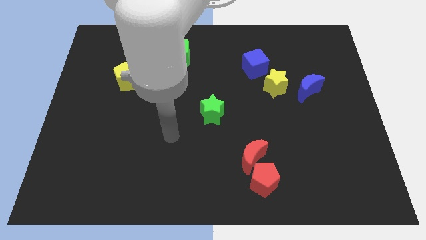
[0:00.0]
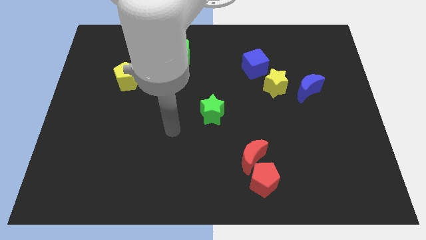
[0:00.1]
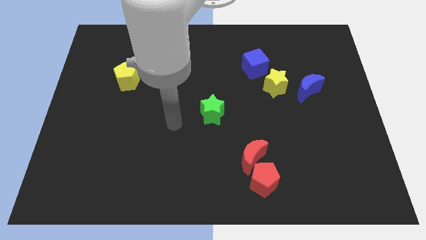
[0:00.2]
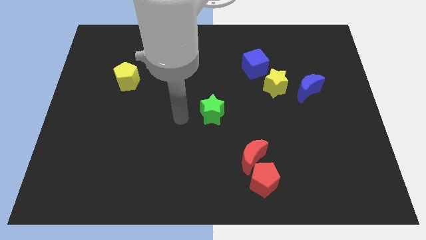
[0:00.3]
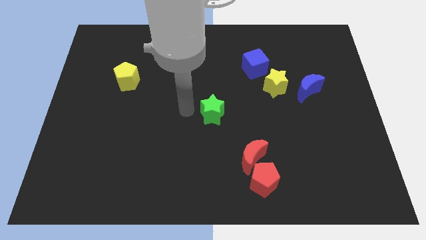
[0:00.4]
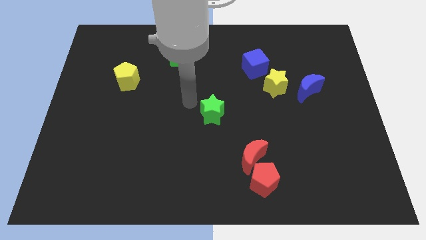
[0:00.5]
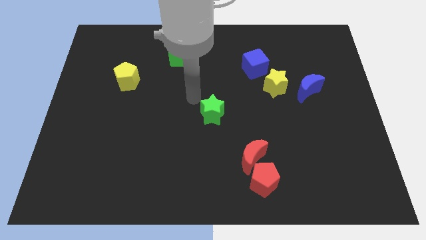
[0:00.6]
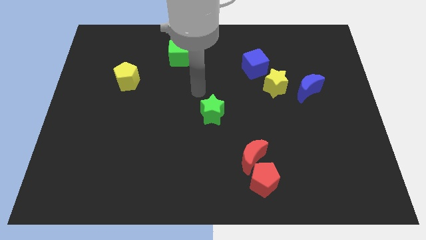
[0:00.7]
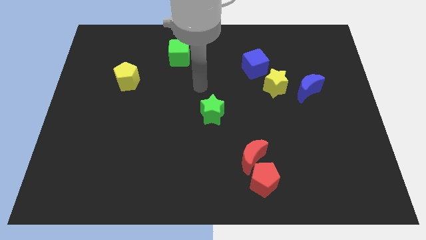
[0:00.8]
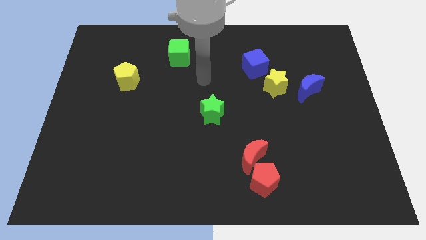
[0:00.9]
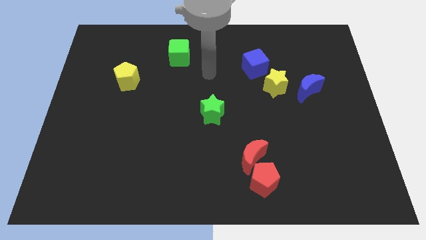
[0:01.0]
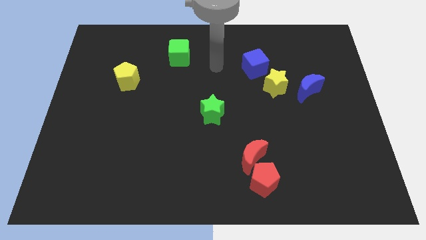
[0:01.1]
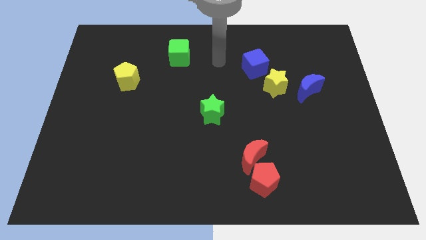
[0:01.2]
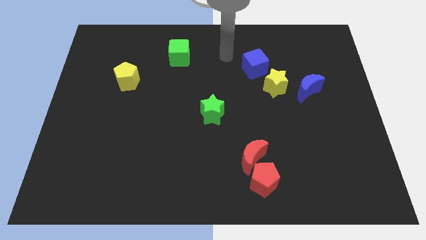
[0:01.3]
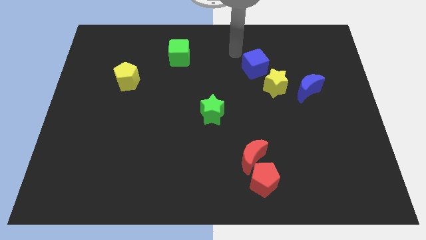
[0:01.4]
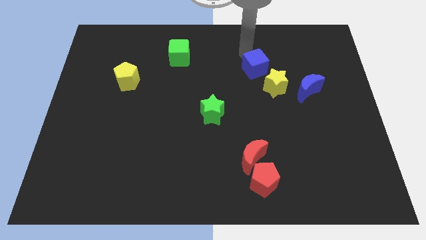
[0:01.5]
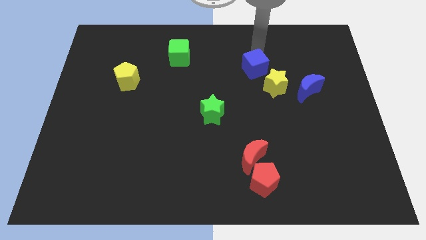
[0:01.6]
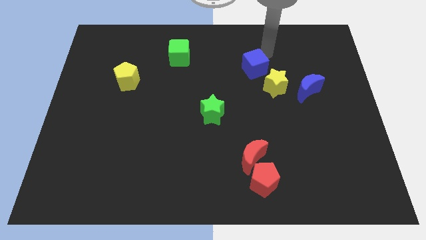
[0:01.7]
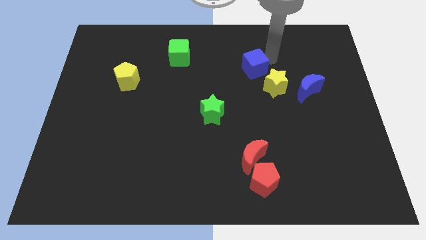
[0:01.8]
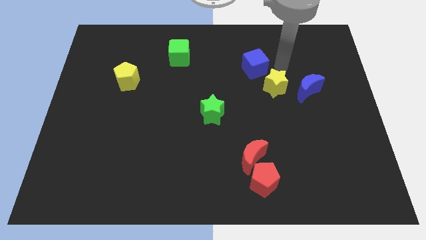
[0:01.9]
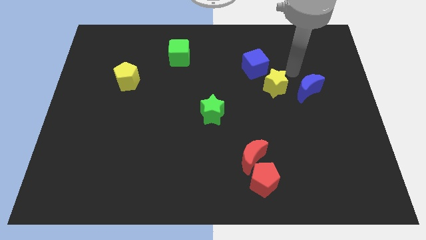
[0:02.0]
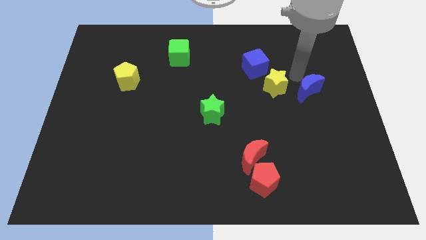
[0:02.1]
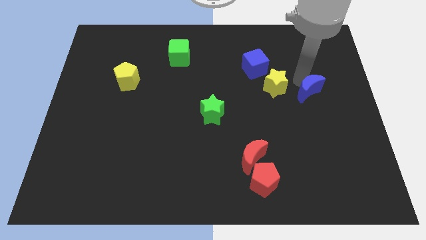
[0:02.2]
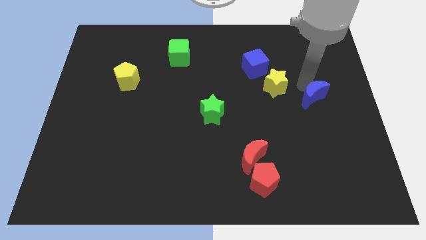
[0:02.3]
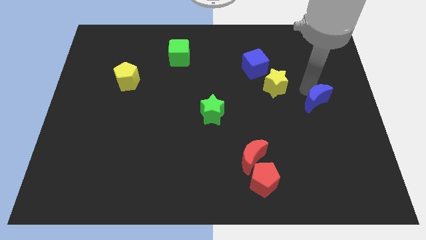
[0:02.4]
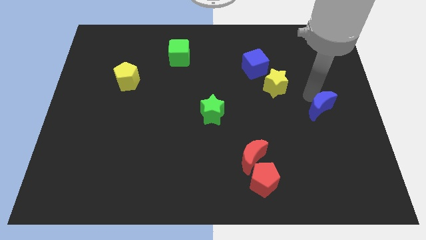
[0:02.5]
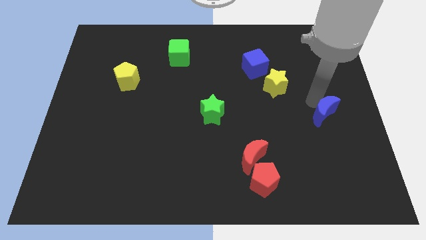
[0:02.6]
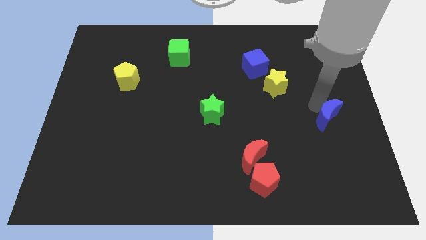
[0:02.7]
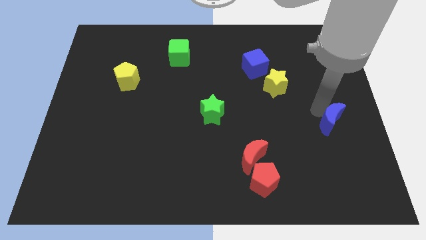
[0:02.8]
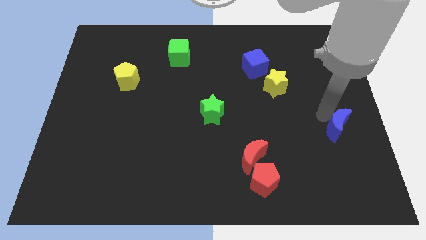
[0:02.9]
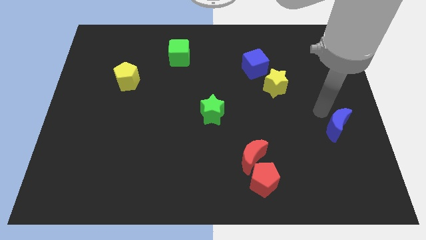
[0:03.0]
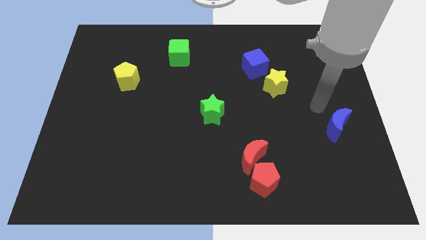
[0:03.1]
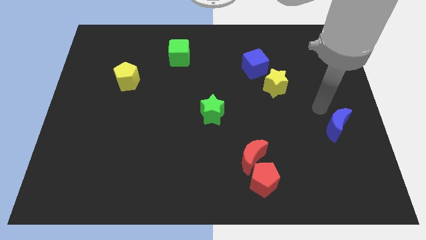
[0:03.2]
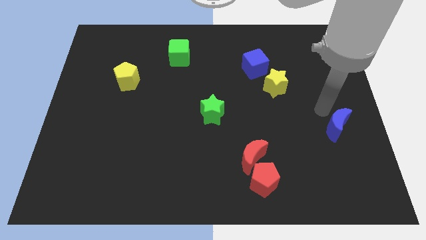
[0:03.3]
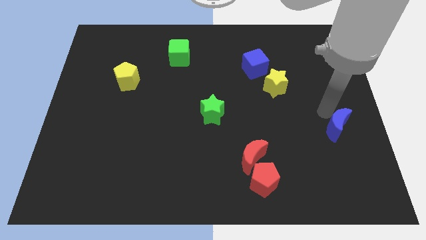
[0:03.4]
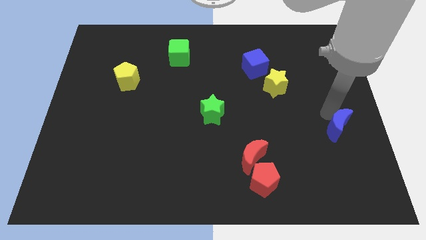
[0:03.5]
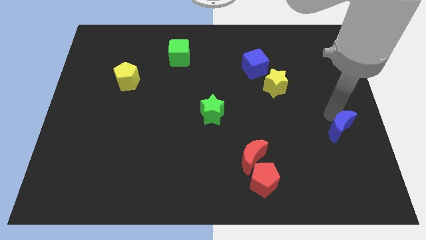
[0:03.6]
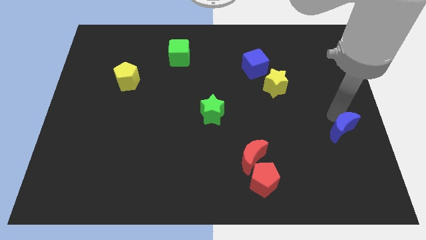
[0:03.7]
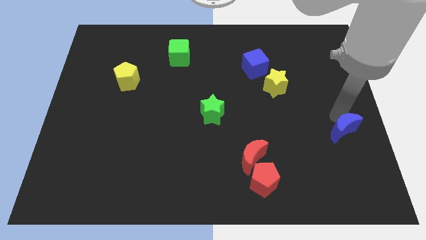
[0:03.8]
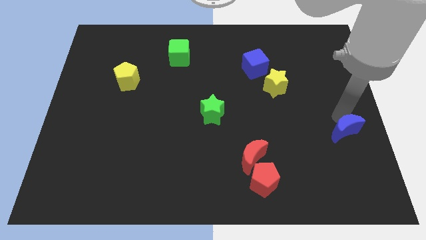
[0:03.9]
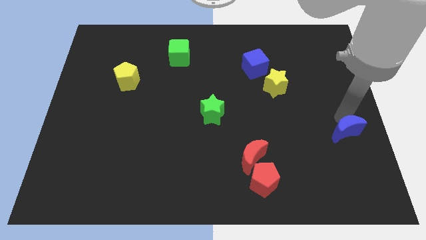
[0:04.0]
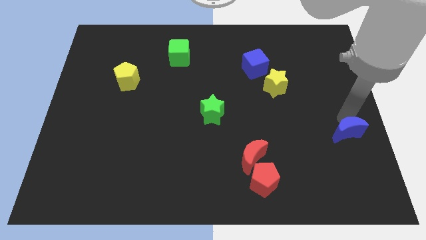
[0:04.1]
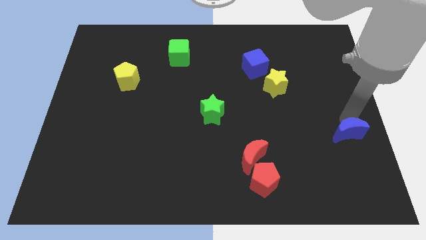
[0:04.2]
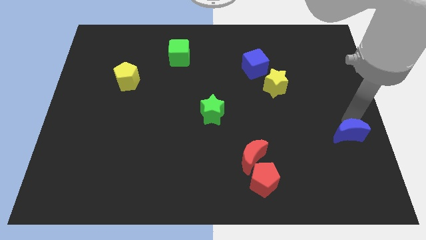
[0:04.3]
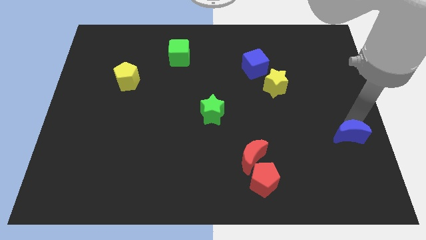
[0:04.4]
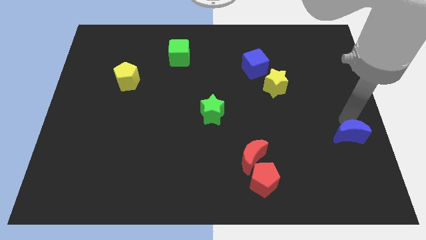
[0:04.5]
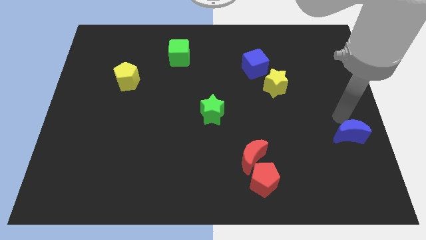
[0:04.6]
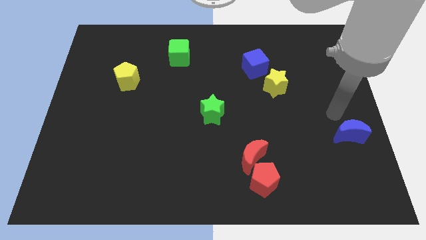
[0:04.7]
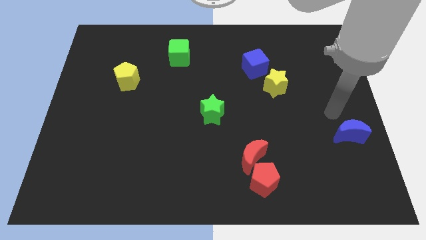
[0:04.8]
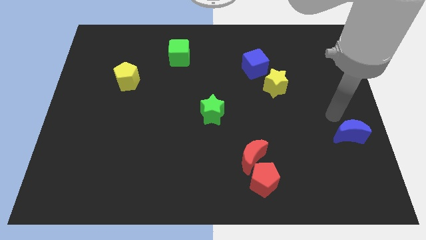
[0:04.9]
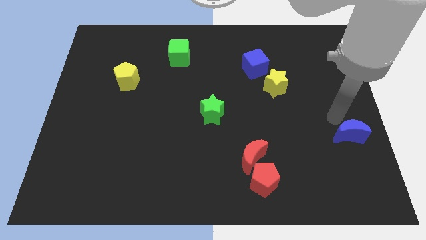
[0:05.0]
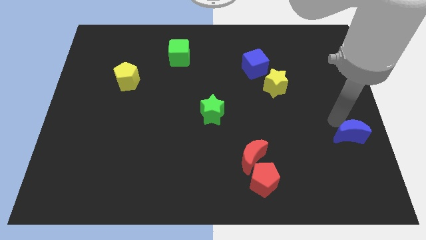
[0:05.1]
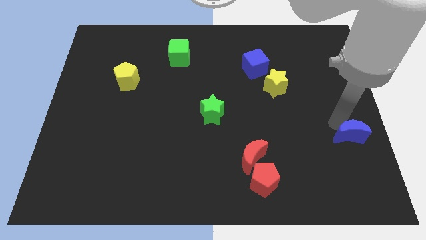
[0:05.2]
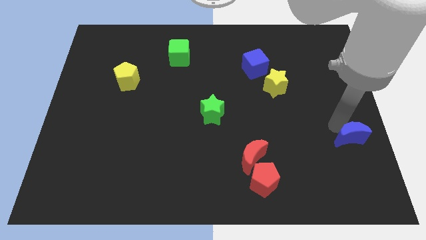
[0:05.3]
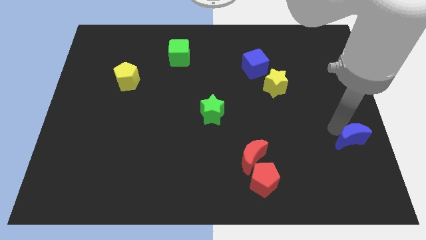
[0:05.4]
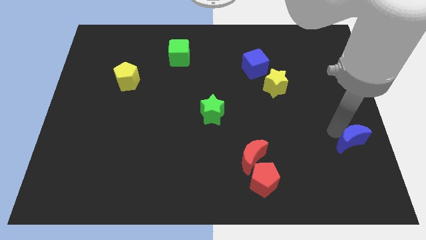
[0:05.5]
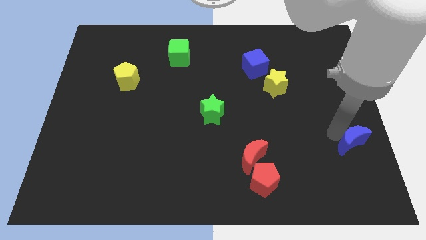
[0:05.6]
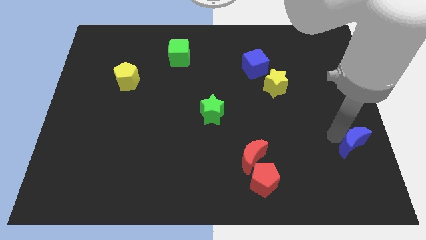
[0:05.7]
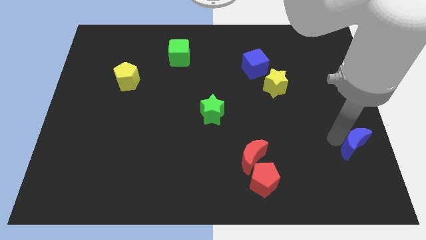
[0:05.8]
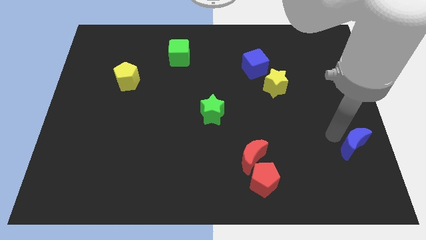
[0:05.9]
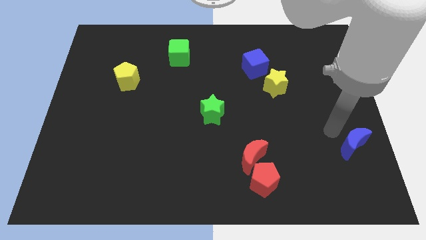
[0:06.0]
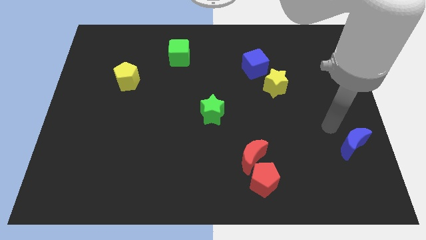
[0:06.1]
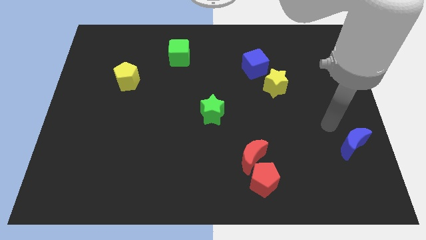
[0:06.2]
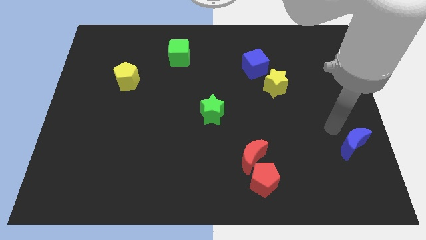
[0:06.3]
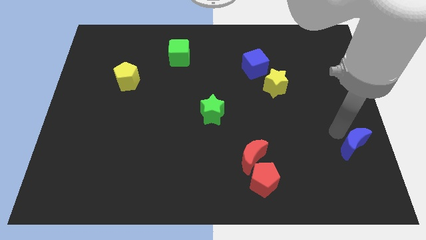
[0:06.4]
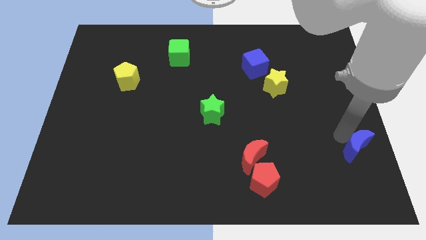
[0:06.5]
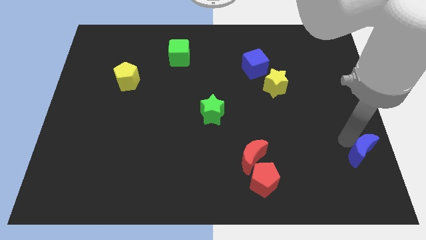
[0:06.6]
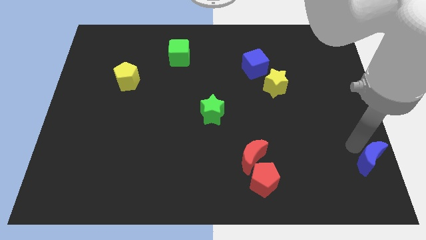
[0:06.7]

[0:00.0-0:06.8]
slide the blue moon to the lower right corner
